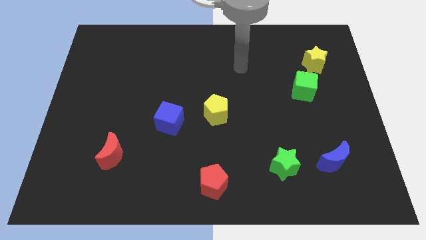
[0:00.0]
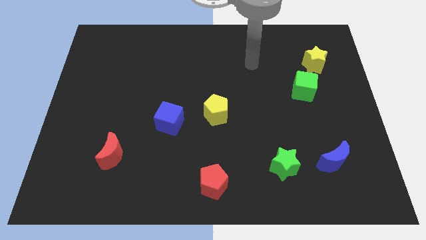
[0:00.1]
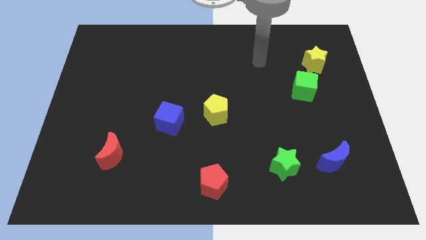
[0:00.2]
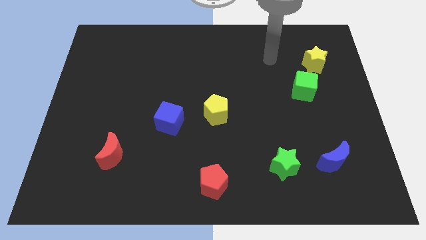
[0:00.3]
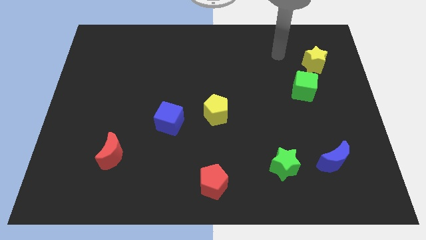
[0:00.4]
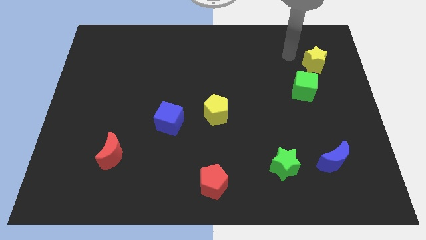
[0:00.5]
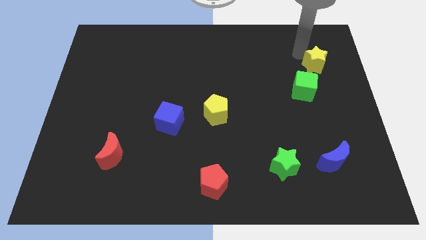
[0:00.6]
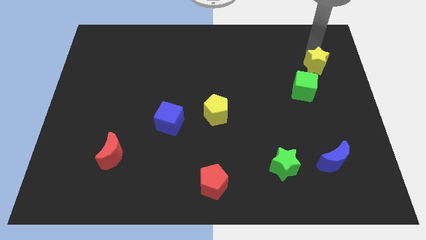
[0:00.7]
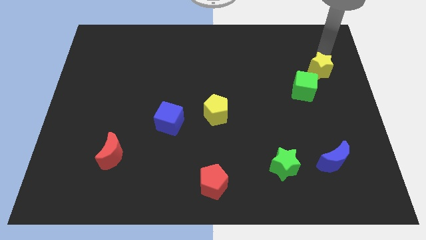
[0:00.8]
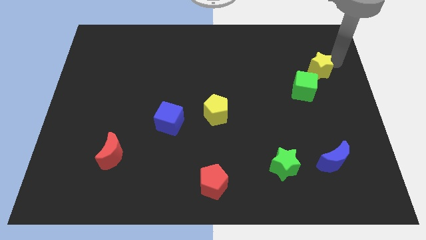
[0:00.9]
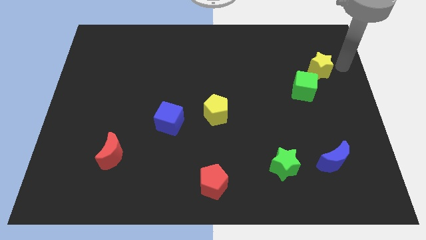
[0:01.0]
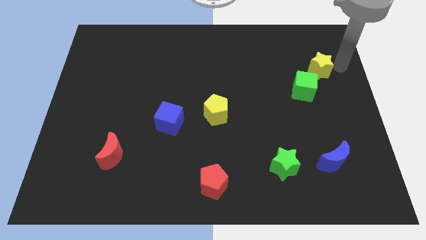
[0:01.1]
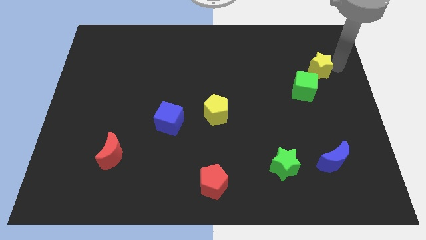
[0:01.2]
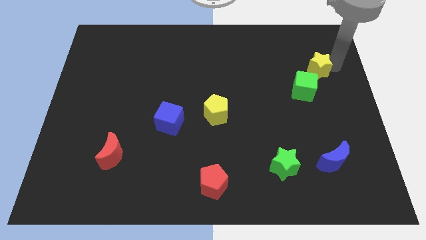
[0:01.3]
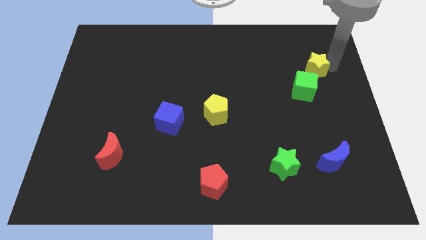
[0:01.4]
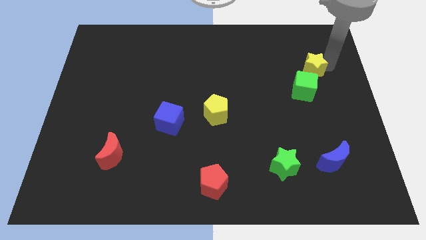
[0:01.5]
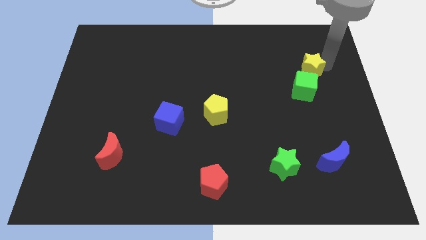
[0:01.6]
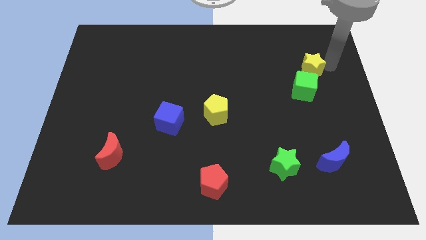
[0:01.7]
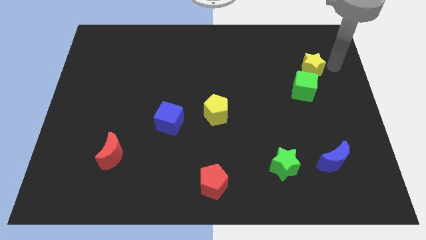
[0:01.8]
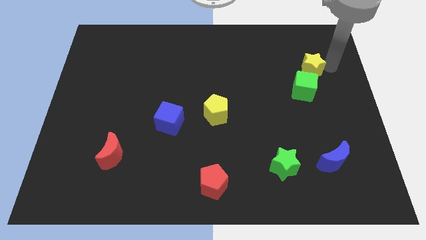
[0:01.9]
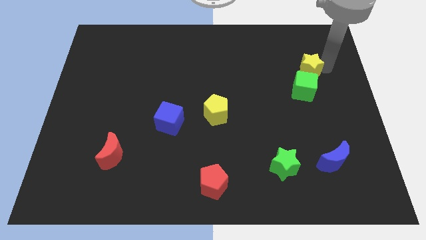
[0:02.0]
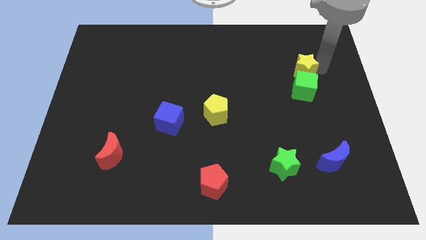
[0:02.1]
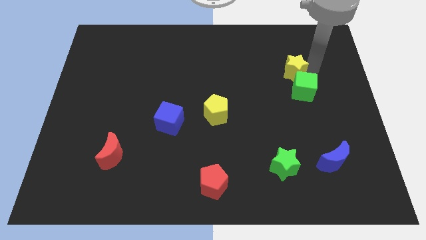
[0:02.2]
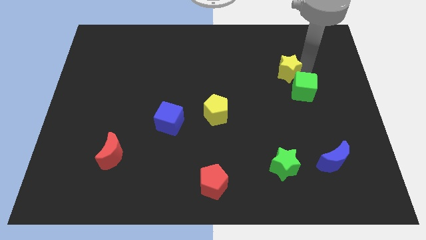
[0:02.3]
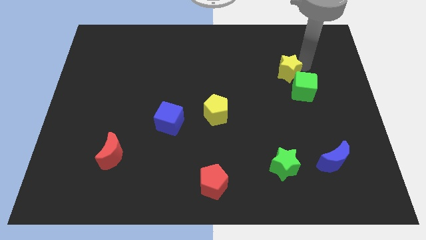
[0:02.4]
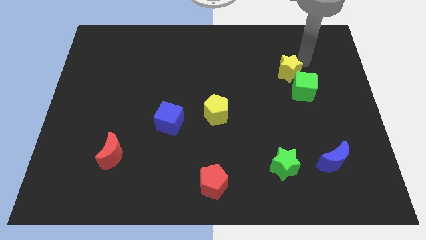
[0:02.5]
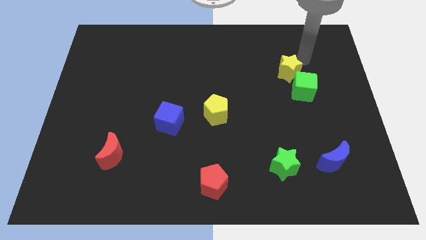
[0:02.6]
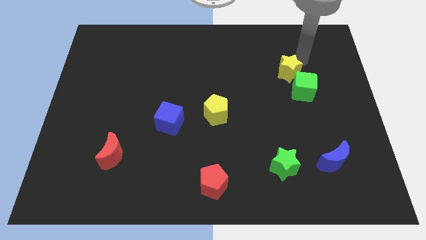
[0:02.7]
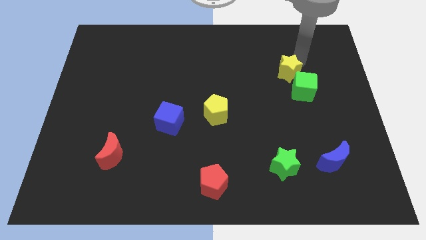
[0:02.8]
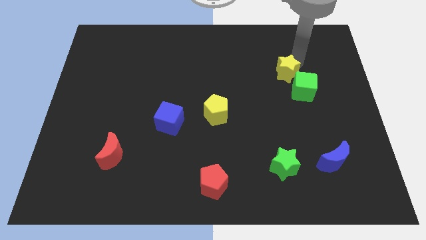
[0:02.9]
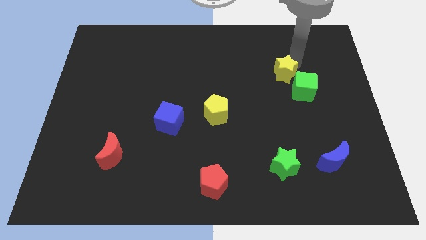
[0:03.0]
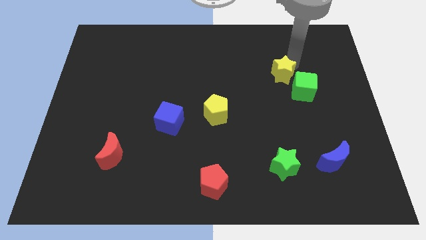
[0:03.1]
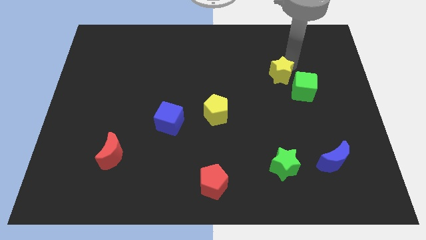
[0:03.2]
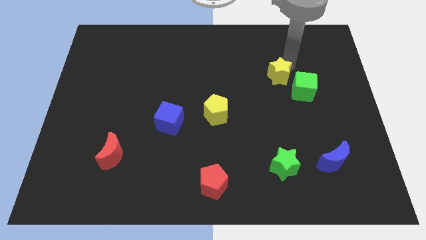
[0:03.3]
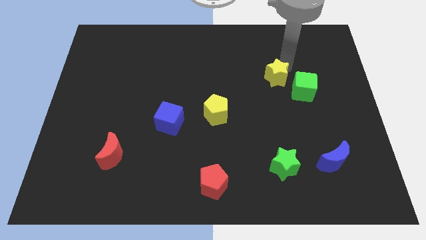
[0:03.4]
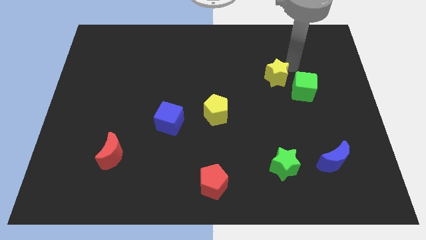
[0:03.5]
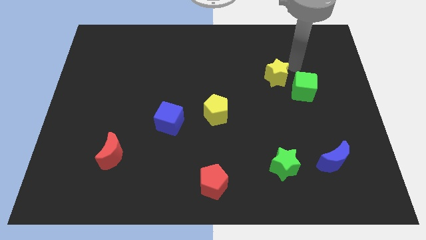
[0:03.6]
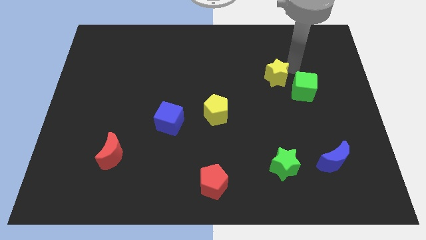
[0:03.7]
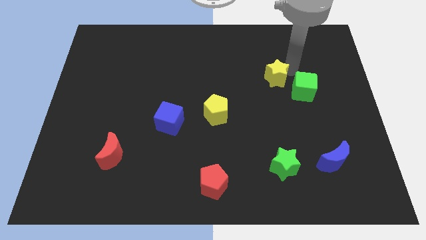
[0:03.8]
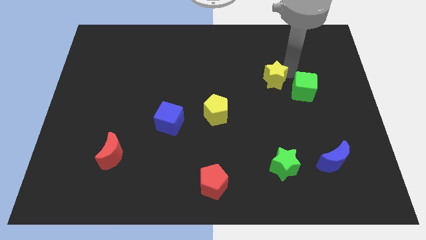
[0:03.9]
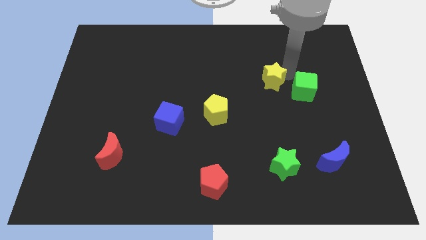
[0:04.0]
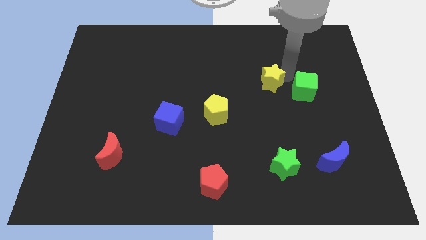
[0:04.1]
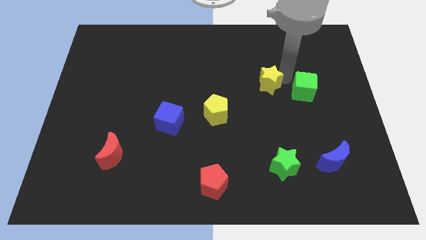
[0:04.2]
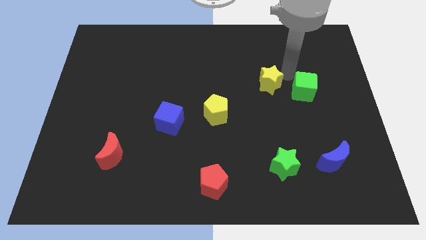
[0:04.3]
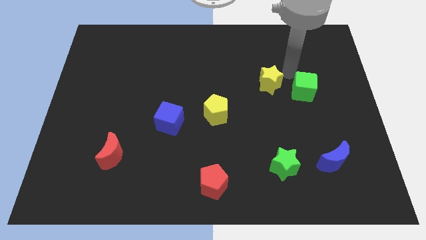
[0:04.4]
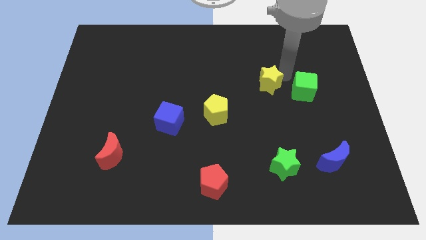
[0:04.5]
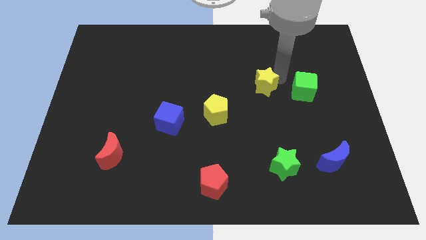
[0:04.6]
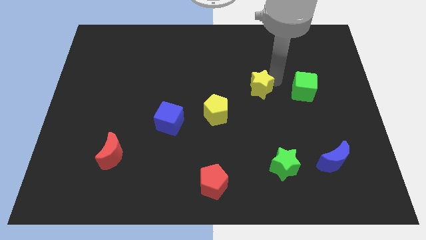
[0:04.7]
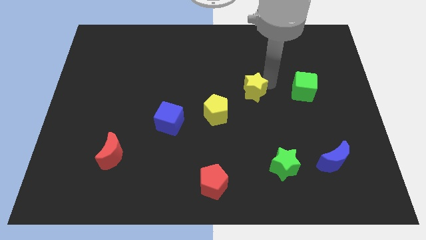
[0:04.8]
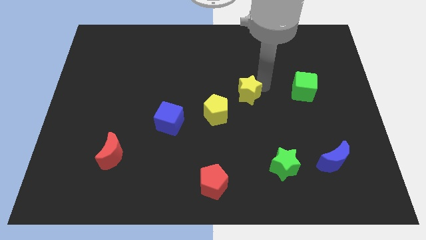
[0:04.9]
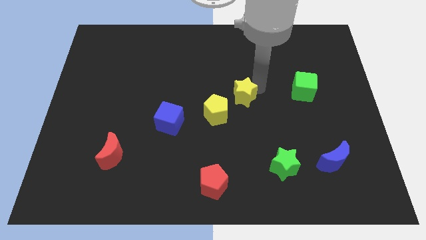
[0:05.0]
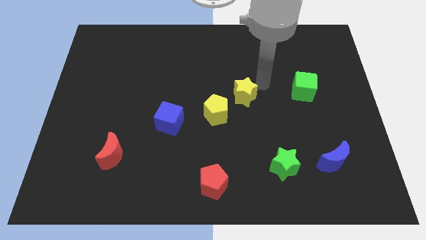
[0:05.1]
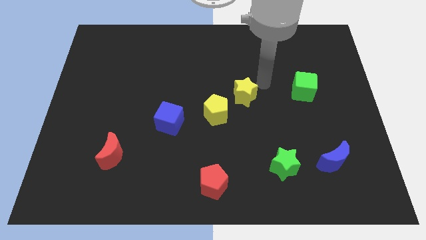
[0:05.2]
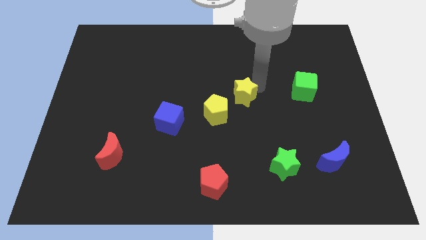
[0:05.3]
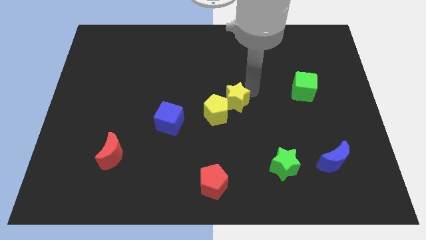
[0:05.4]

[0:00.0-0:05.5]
slide the yellow star close to the yellow pentagon
